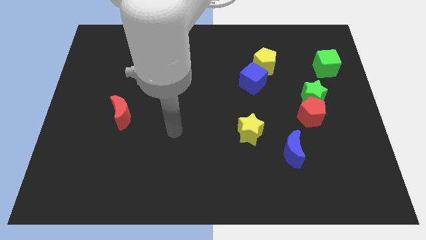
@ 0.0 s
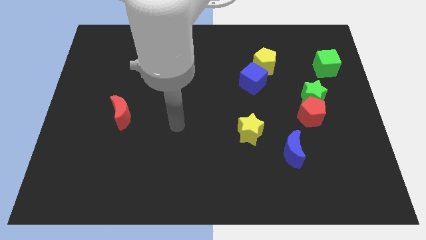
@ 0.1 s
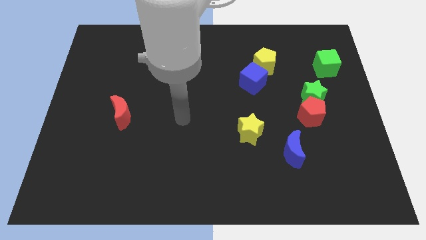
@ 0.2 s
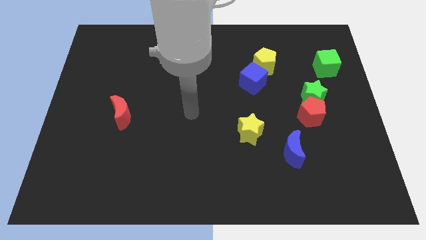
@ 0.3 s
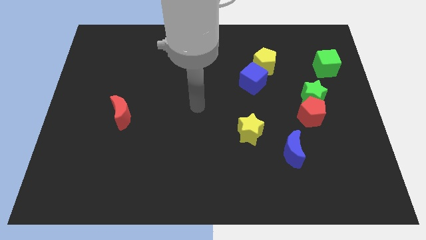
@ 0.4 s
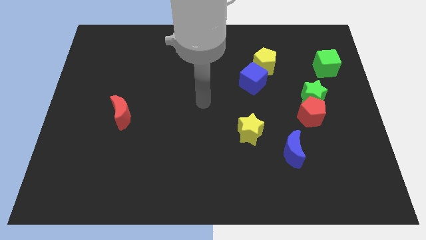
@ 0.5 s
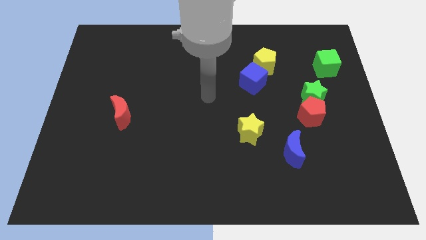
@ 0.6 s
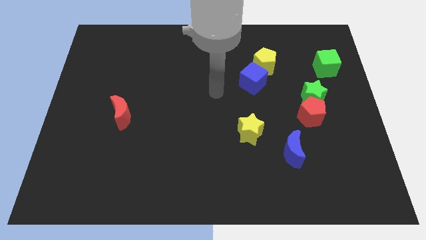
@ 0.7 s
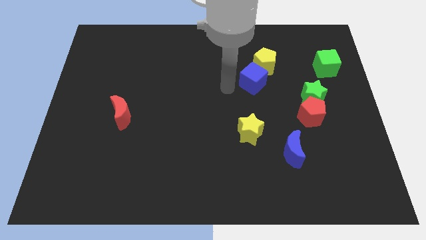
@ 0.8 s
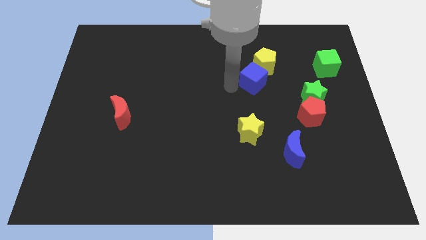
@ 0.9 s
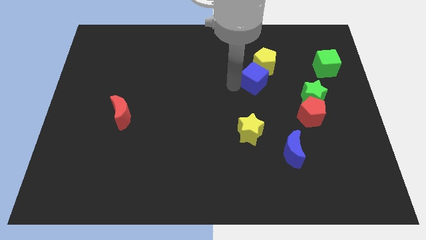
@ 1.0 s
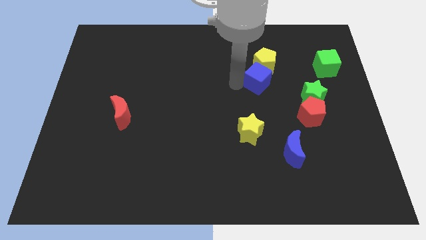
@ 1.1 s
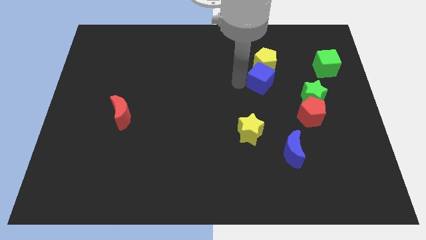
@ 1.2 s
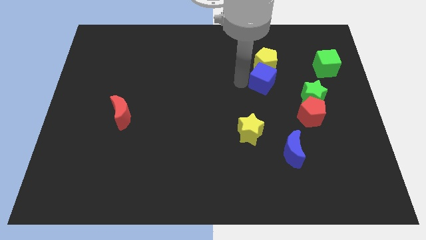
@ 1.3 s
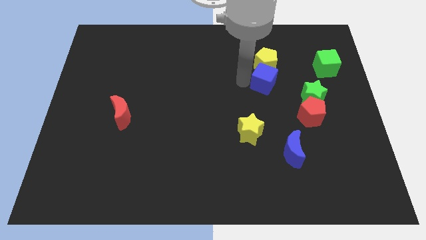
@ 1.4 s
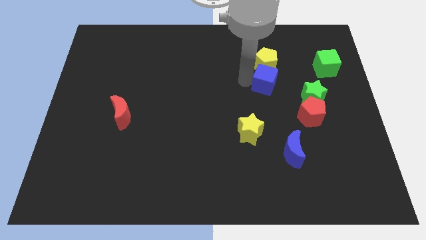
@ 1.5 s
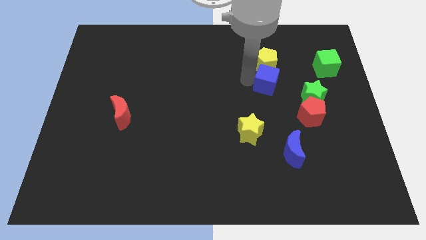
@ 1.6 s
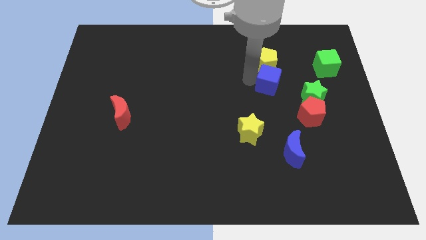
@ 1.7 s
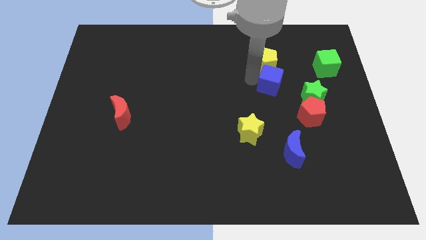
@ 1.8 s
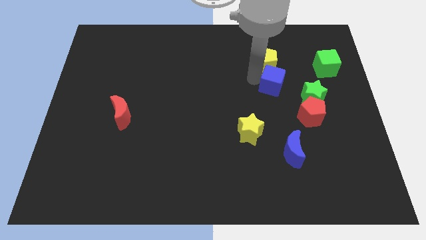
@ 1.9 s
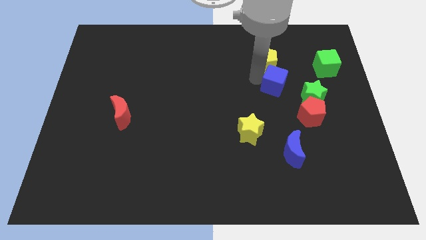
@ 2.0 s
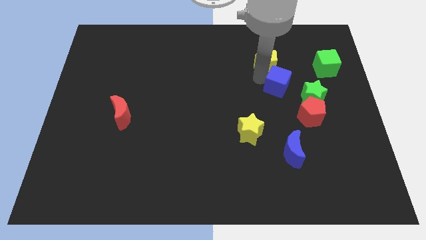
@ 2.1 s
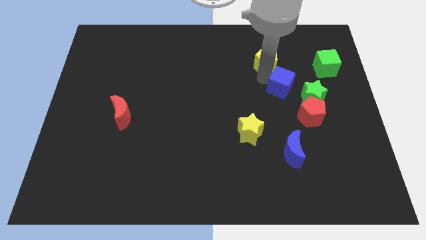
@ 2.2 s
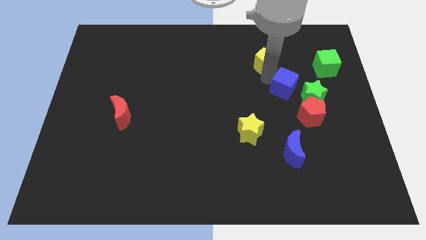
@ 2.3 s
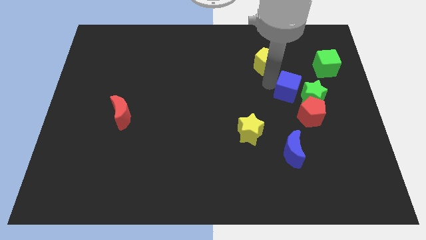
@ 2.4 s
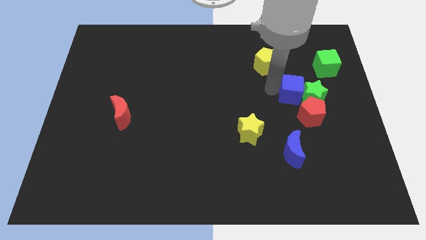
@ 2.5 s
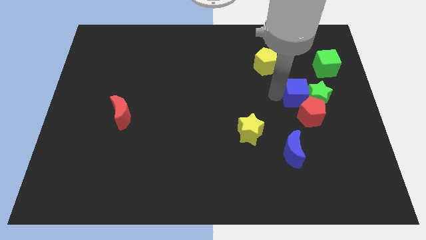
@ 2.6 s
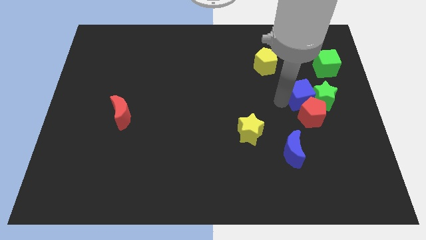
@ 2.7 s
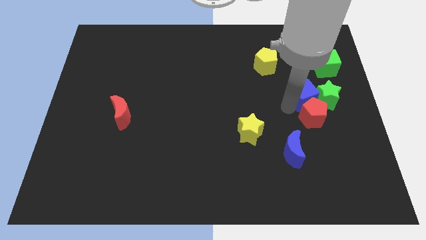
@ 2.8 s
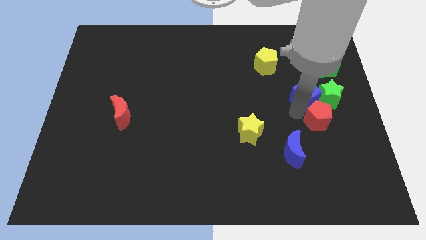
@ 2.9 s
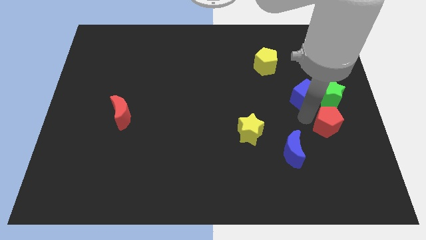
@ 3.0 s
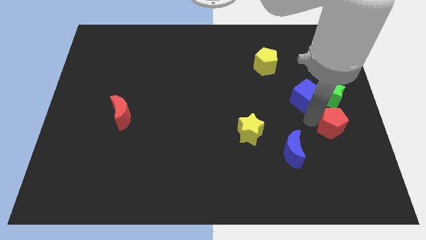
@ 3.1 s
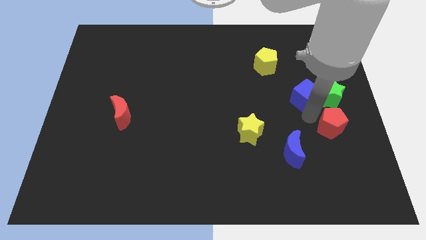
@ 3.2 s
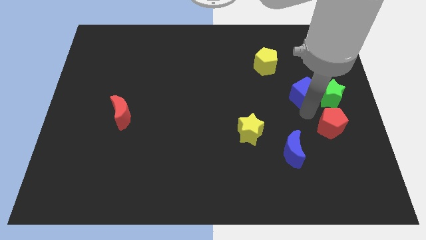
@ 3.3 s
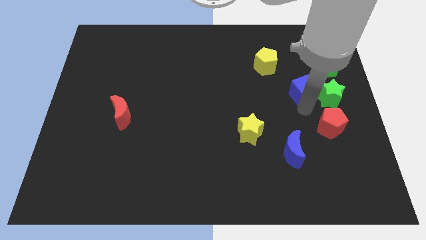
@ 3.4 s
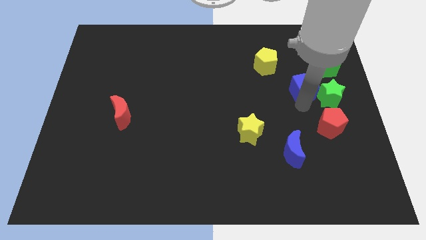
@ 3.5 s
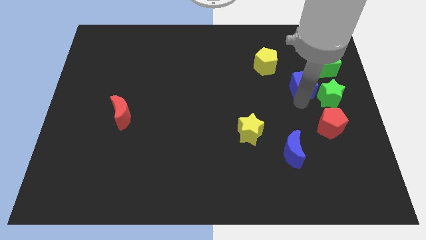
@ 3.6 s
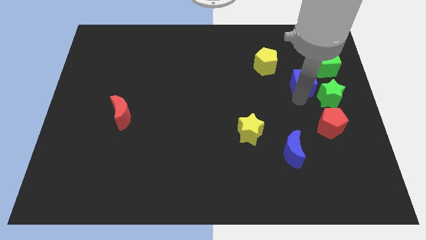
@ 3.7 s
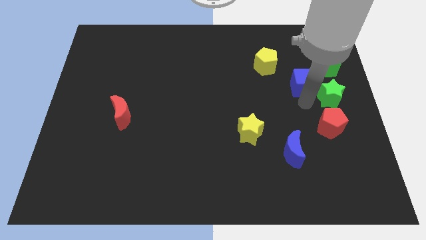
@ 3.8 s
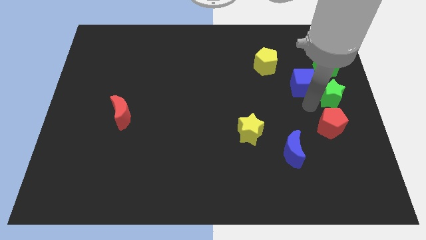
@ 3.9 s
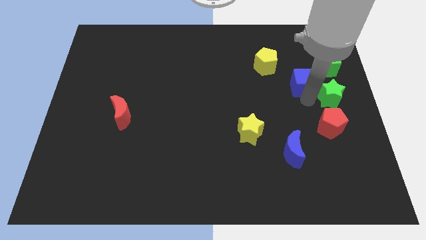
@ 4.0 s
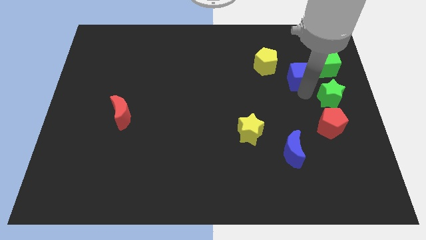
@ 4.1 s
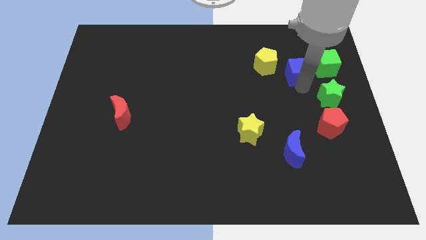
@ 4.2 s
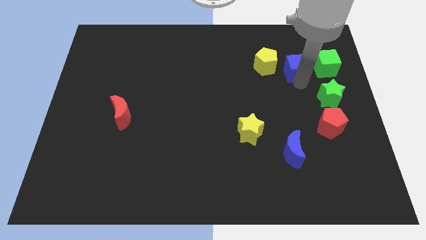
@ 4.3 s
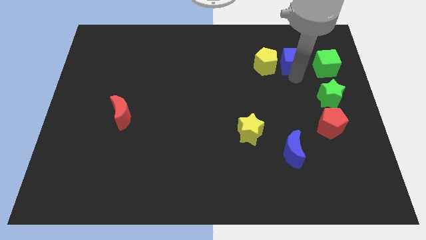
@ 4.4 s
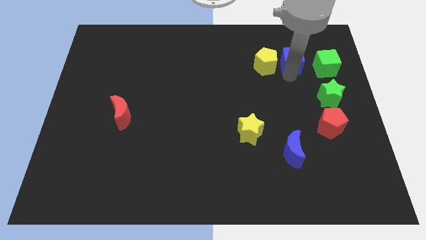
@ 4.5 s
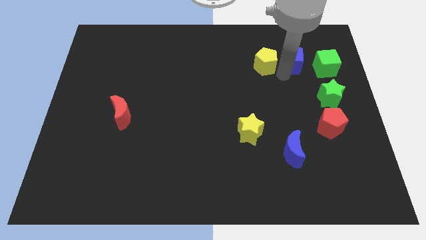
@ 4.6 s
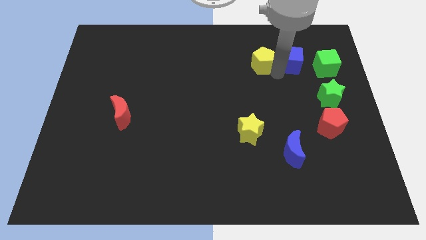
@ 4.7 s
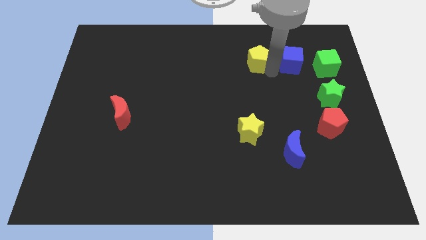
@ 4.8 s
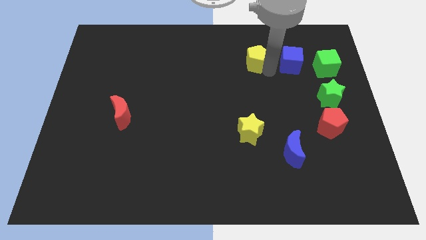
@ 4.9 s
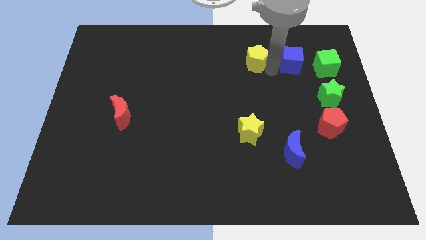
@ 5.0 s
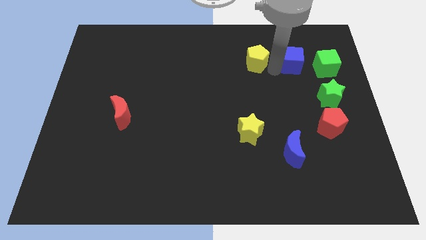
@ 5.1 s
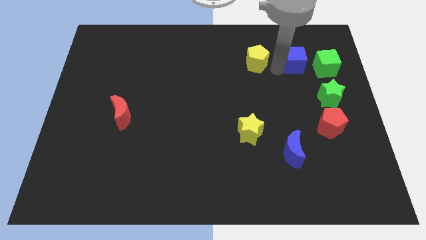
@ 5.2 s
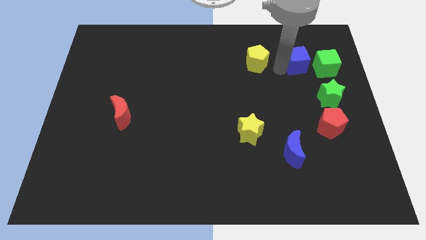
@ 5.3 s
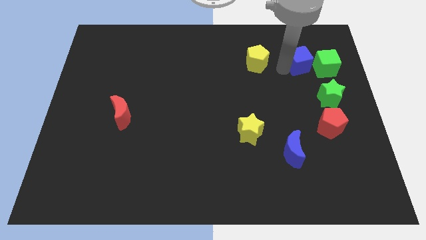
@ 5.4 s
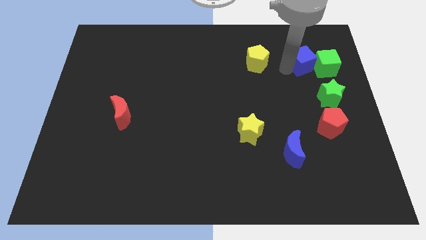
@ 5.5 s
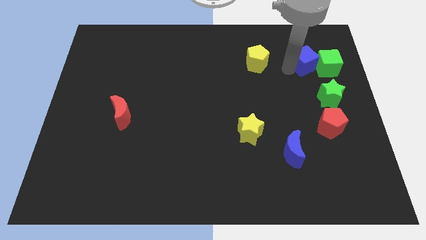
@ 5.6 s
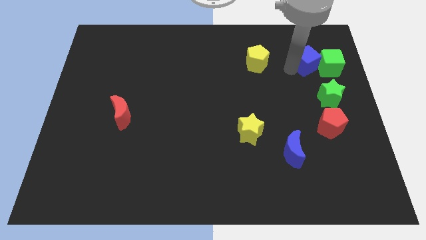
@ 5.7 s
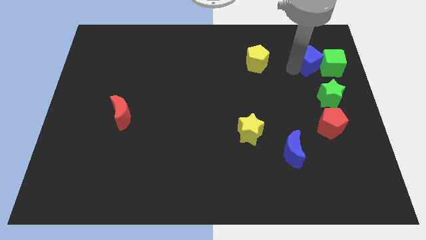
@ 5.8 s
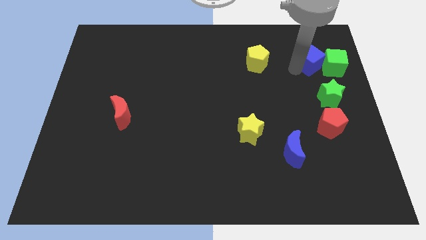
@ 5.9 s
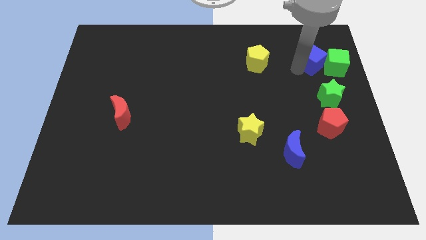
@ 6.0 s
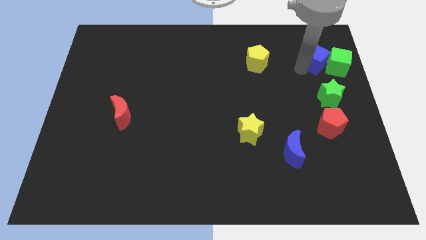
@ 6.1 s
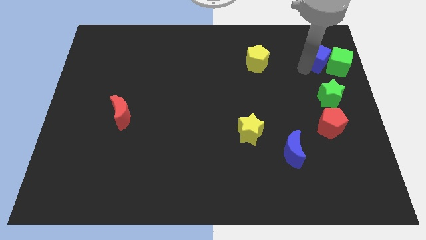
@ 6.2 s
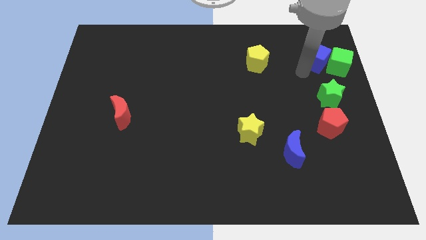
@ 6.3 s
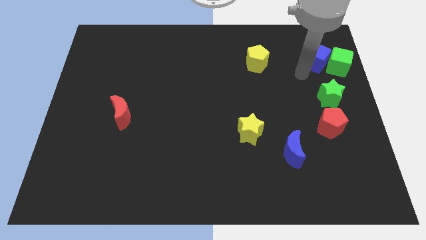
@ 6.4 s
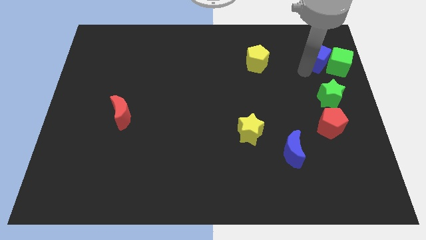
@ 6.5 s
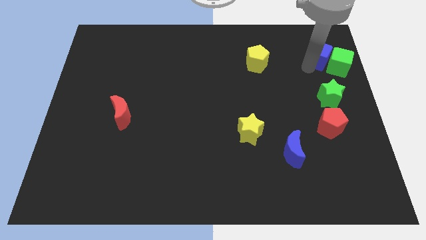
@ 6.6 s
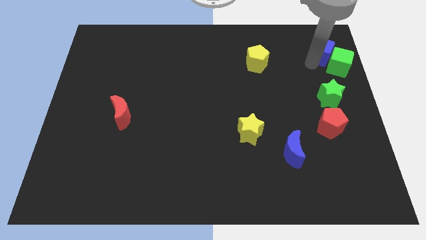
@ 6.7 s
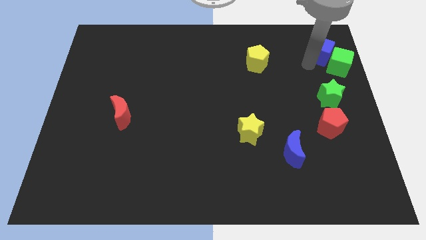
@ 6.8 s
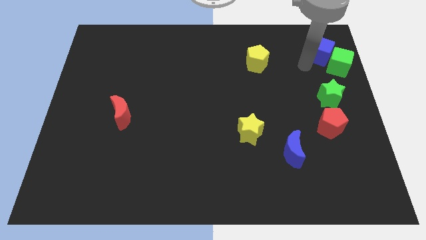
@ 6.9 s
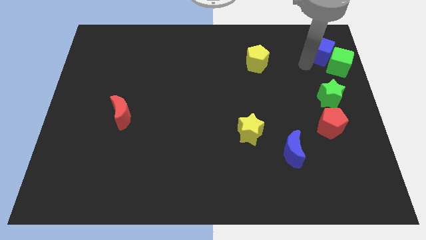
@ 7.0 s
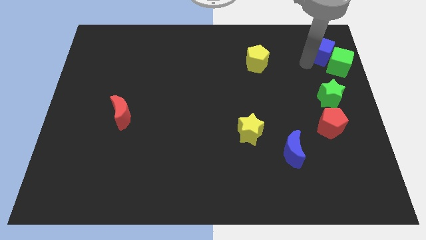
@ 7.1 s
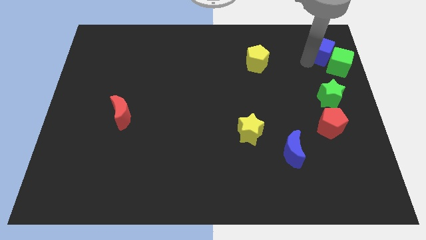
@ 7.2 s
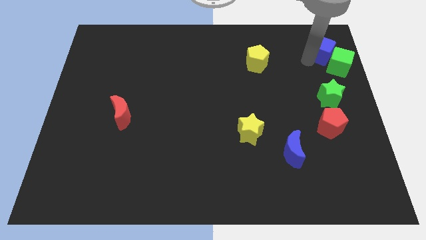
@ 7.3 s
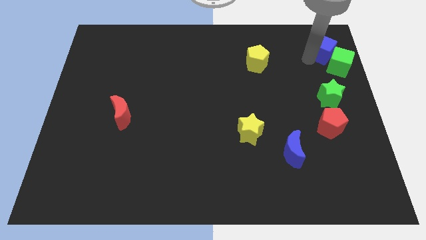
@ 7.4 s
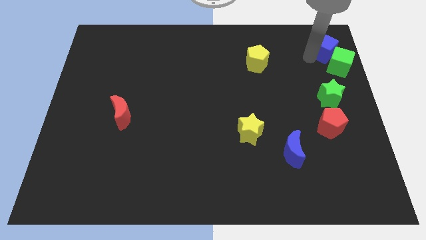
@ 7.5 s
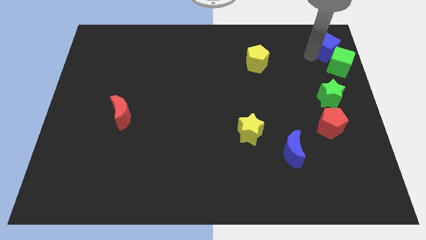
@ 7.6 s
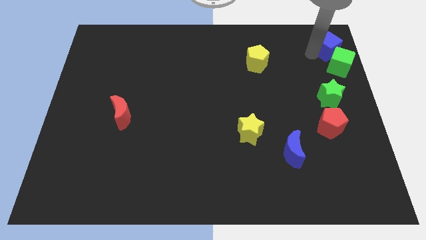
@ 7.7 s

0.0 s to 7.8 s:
move the blue cube to the top right of the board
